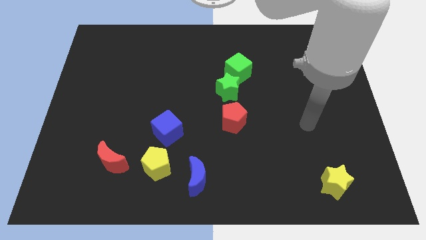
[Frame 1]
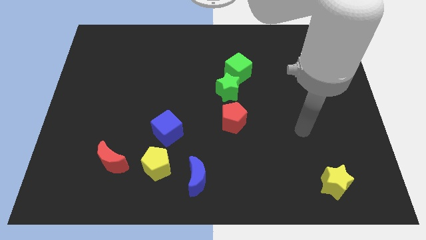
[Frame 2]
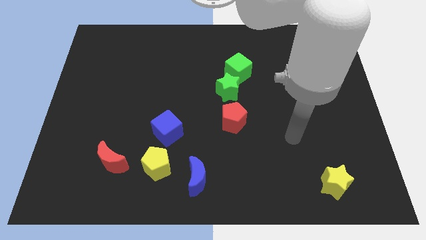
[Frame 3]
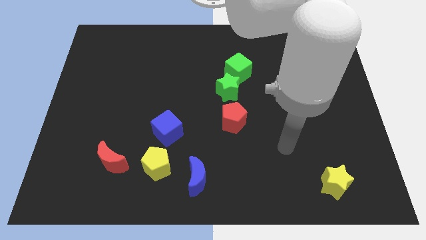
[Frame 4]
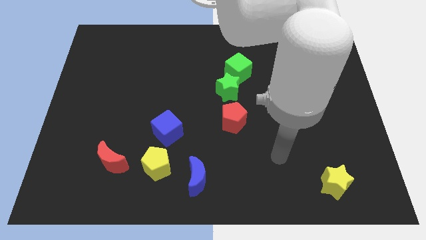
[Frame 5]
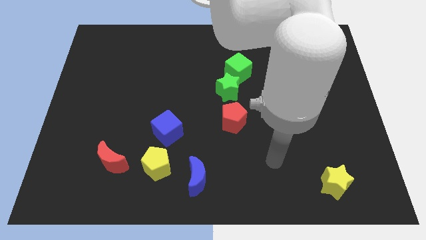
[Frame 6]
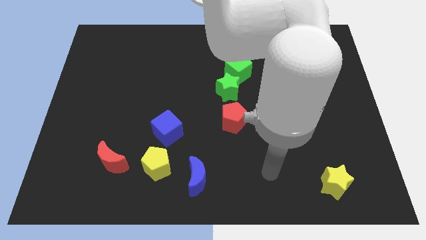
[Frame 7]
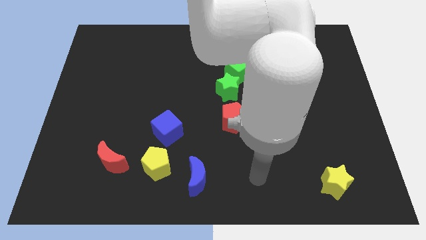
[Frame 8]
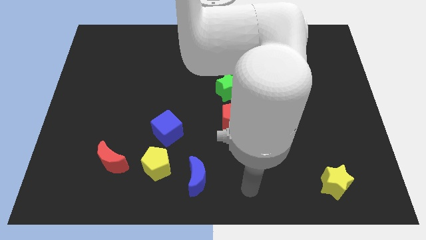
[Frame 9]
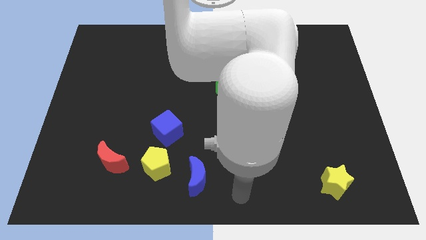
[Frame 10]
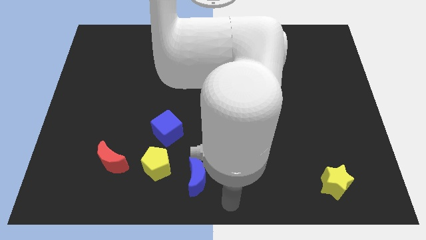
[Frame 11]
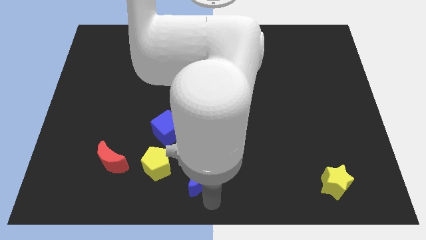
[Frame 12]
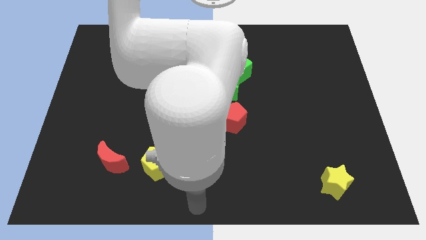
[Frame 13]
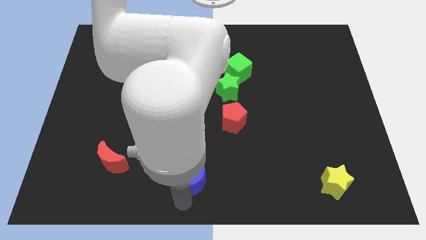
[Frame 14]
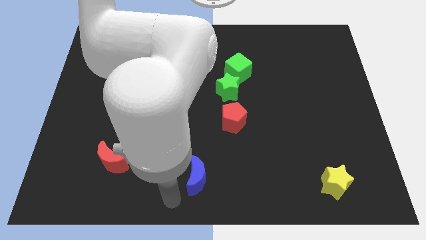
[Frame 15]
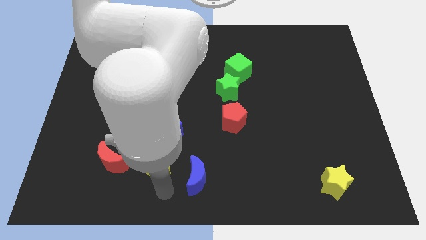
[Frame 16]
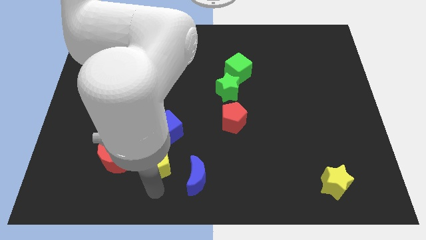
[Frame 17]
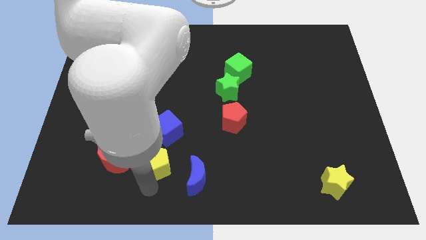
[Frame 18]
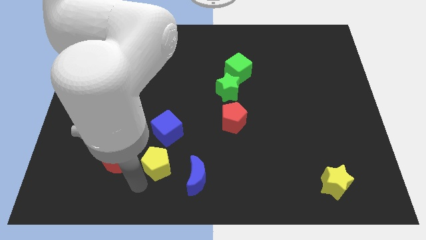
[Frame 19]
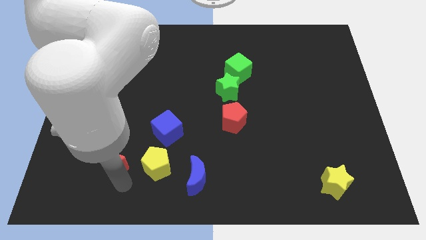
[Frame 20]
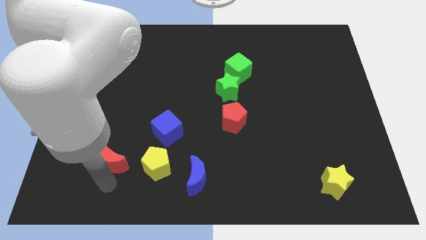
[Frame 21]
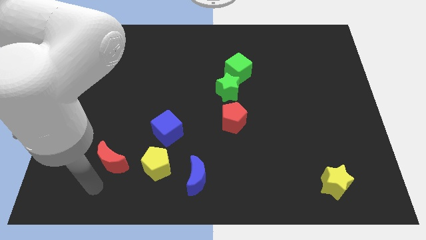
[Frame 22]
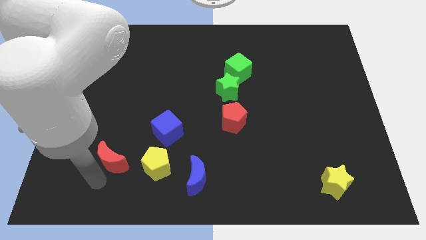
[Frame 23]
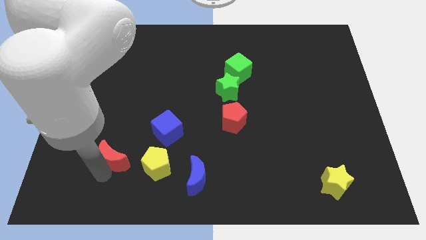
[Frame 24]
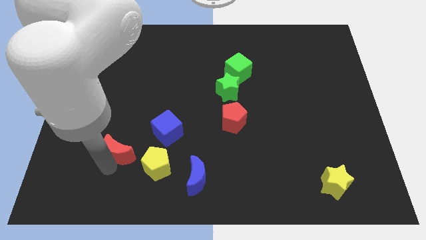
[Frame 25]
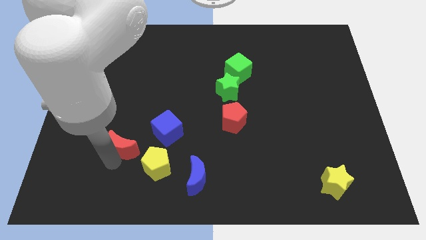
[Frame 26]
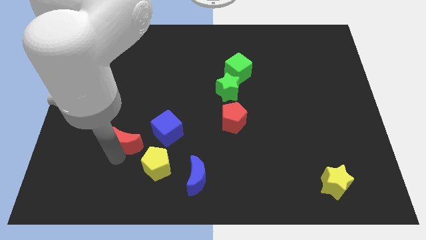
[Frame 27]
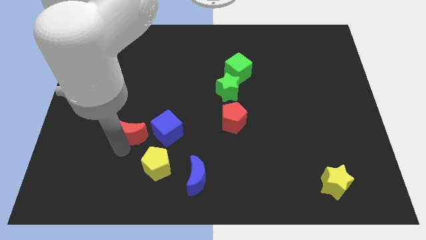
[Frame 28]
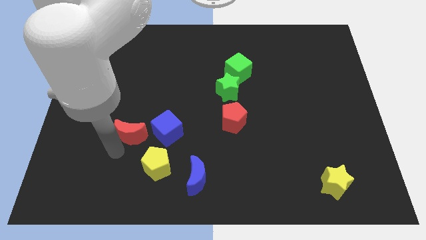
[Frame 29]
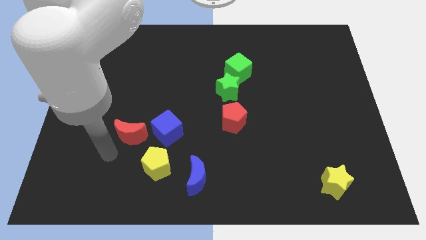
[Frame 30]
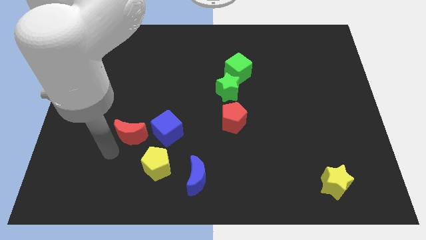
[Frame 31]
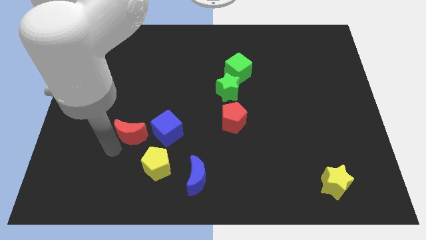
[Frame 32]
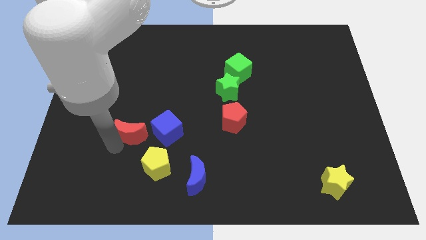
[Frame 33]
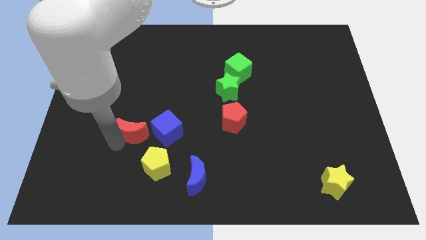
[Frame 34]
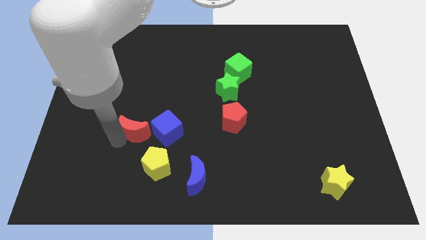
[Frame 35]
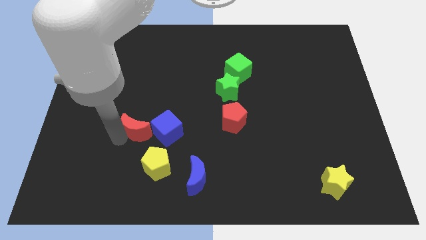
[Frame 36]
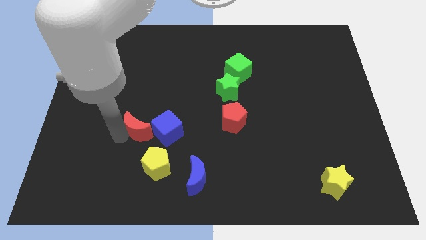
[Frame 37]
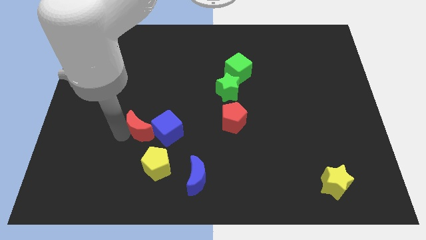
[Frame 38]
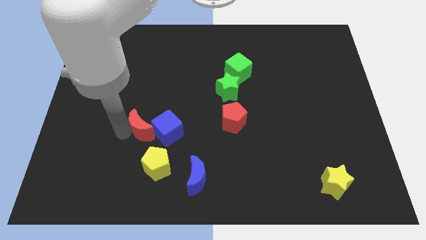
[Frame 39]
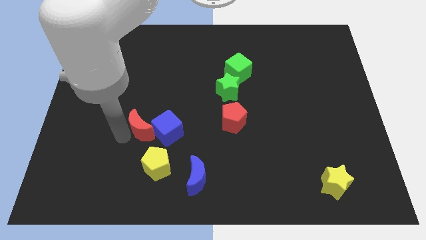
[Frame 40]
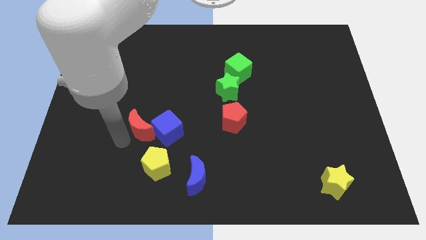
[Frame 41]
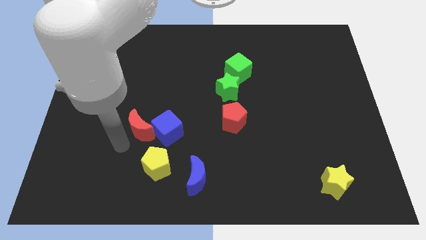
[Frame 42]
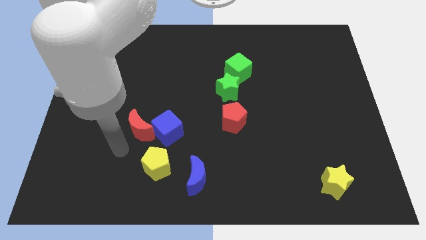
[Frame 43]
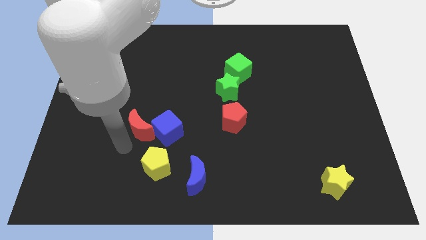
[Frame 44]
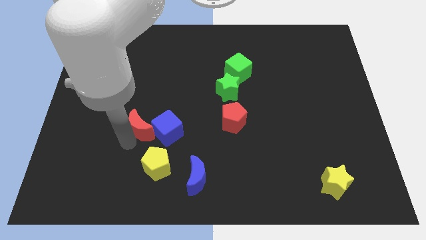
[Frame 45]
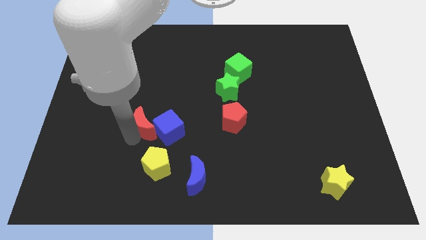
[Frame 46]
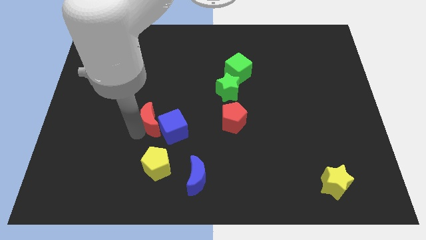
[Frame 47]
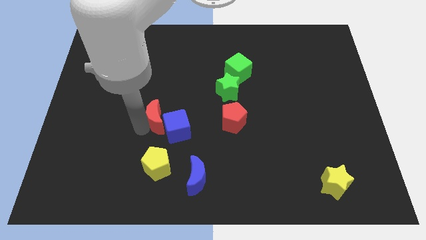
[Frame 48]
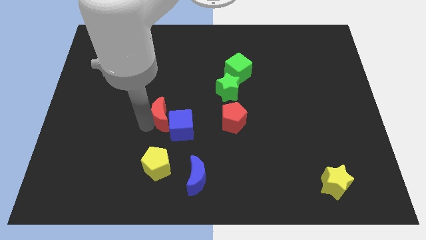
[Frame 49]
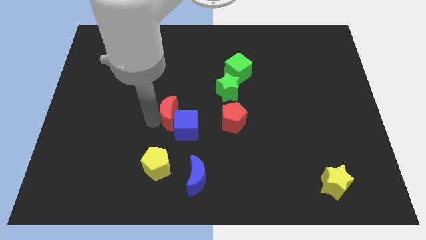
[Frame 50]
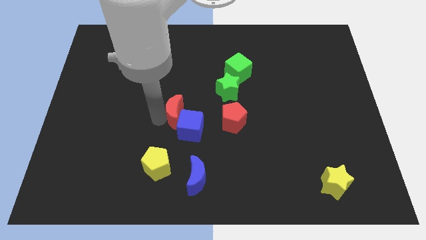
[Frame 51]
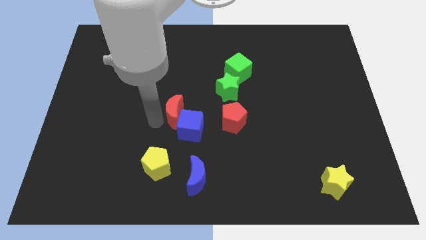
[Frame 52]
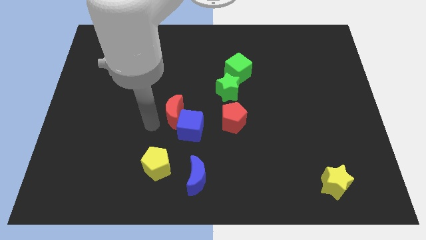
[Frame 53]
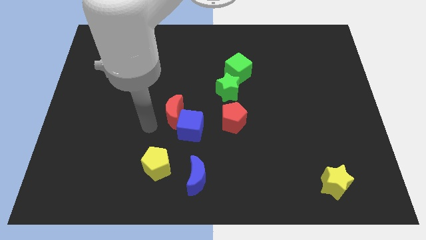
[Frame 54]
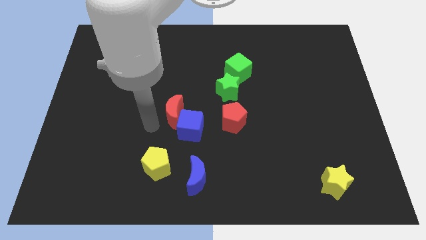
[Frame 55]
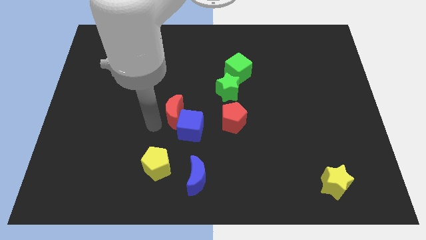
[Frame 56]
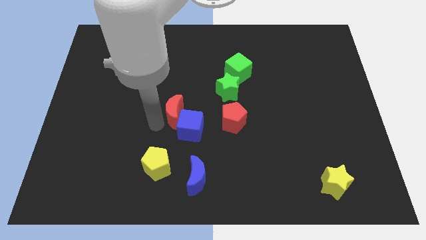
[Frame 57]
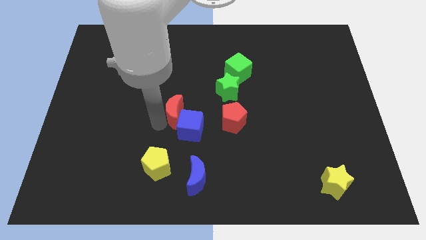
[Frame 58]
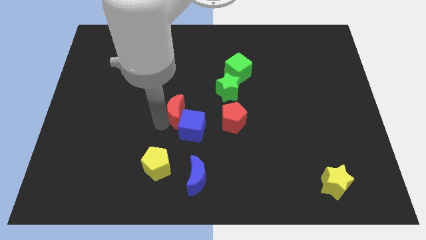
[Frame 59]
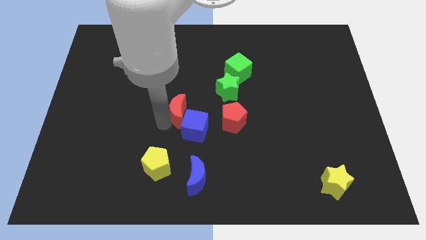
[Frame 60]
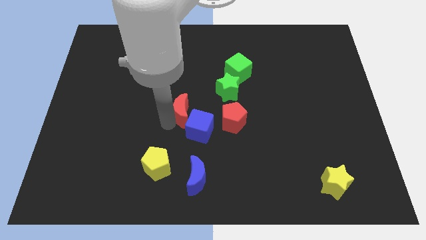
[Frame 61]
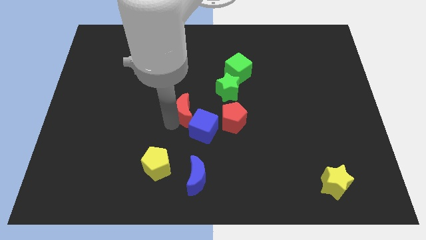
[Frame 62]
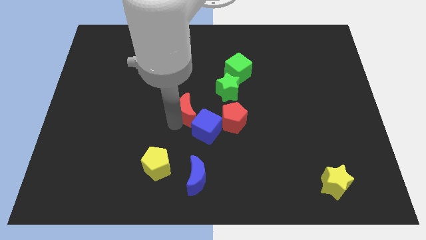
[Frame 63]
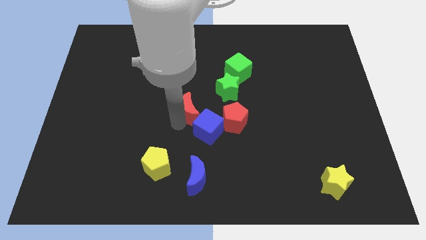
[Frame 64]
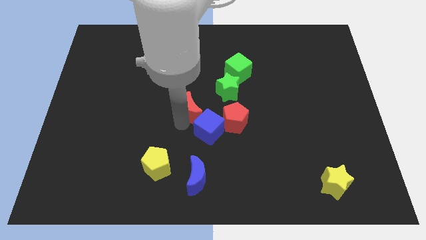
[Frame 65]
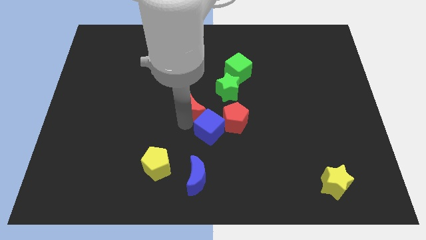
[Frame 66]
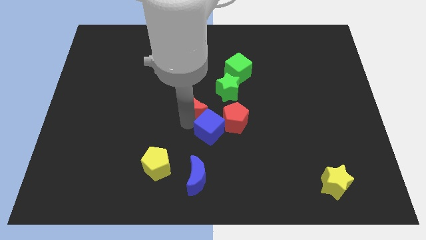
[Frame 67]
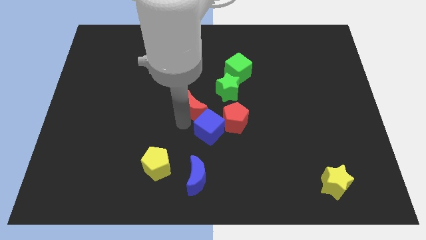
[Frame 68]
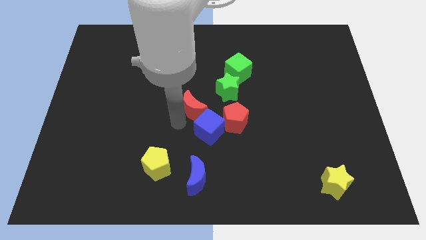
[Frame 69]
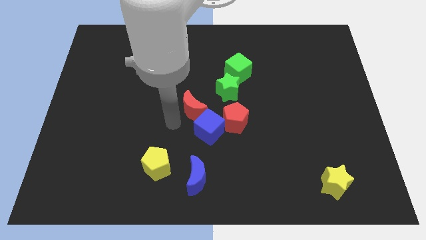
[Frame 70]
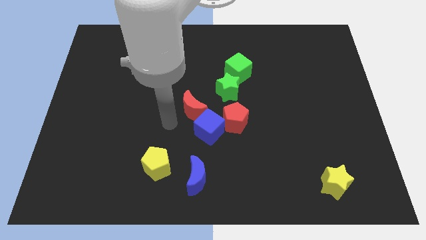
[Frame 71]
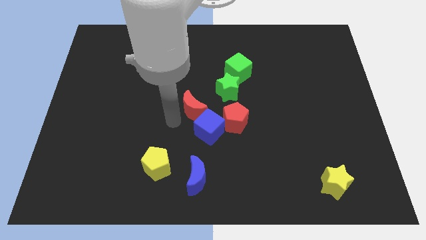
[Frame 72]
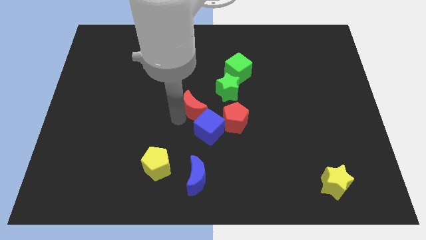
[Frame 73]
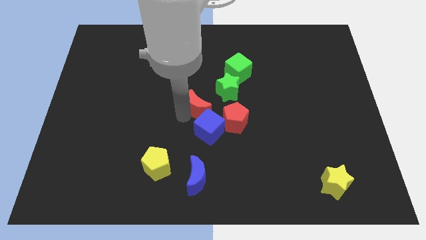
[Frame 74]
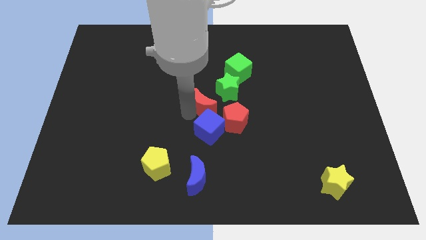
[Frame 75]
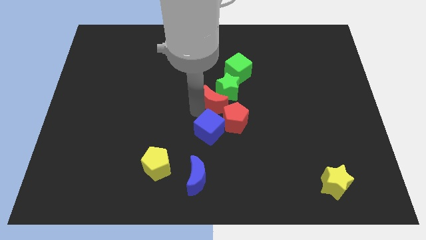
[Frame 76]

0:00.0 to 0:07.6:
put the red moon close to the green star

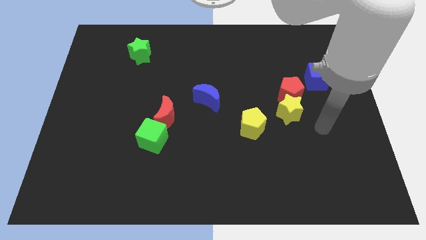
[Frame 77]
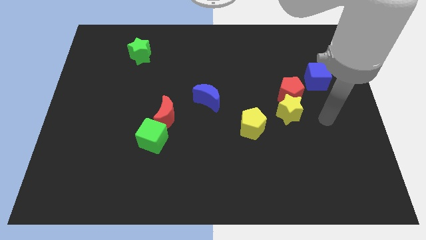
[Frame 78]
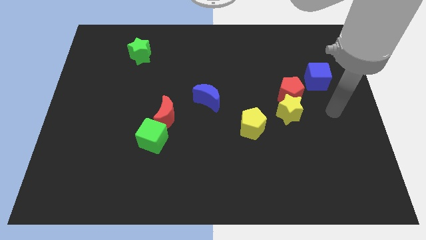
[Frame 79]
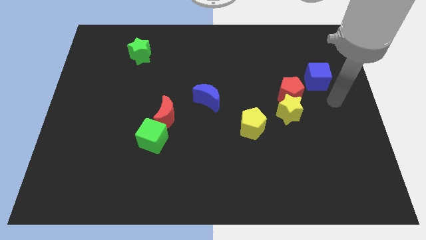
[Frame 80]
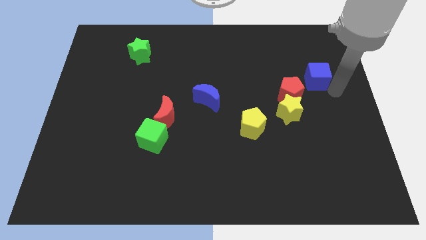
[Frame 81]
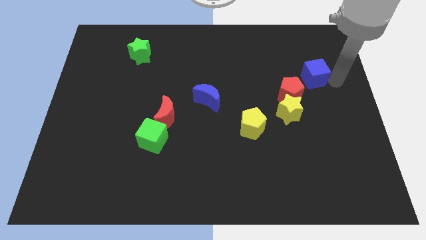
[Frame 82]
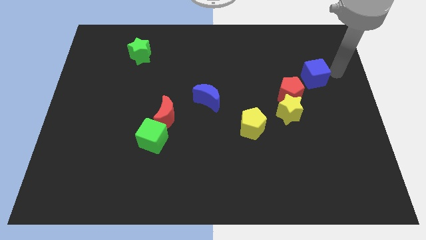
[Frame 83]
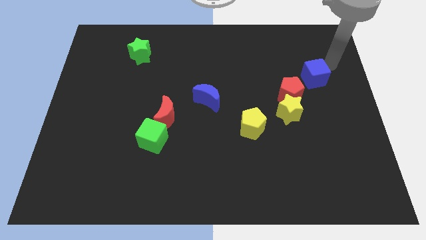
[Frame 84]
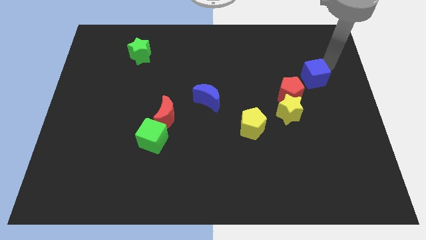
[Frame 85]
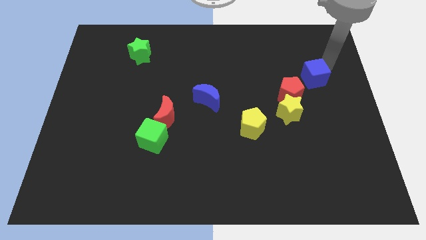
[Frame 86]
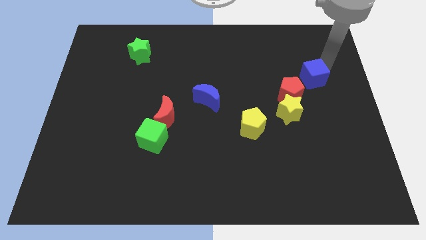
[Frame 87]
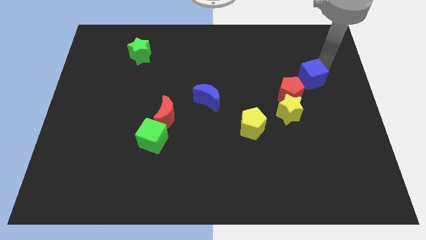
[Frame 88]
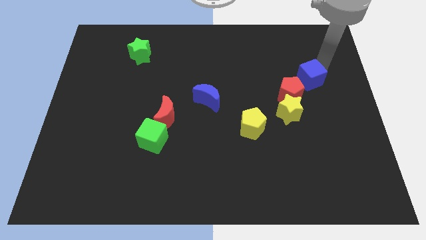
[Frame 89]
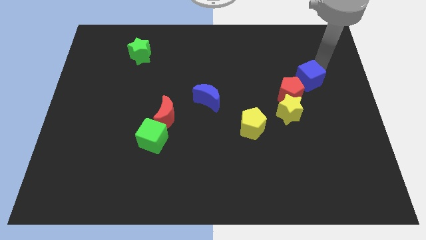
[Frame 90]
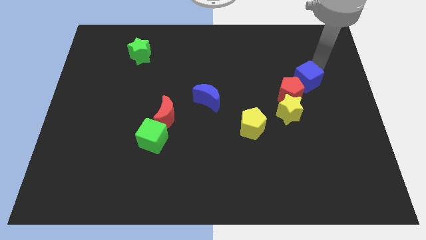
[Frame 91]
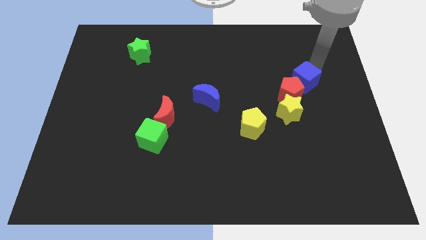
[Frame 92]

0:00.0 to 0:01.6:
slide the blue cube towards the red pentagon
